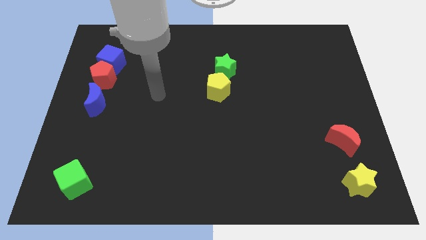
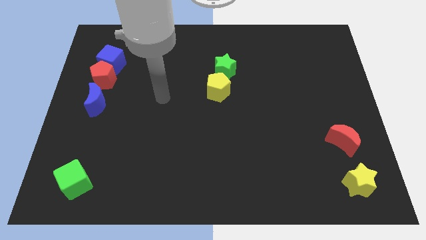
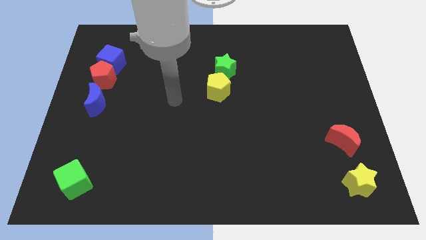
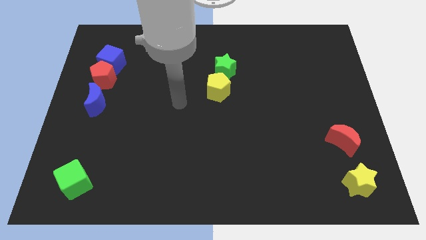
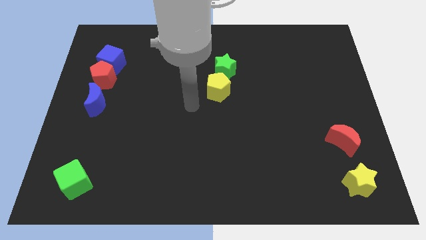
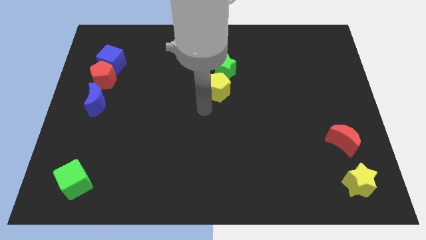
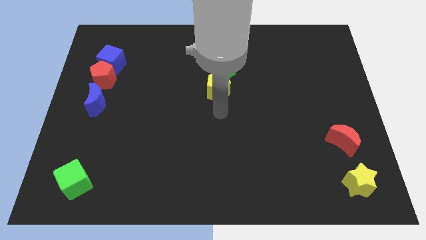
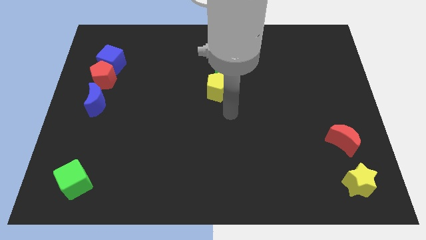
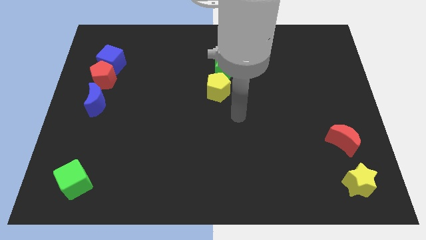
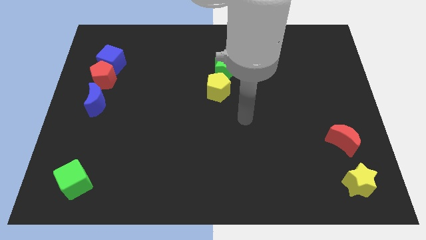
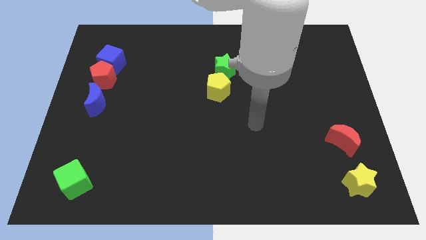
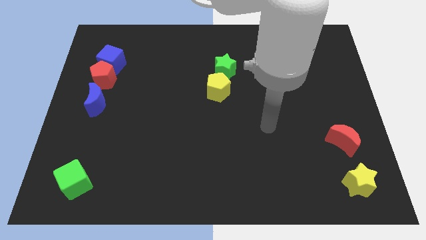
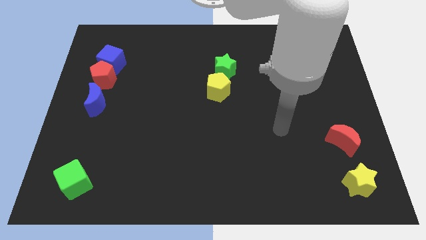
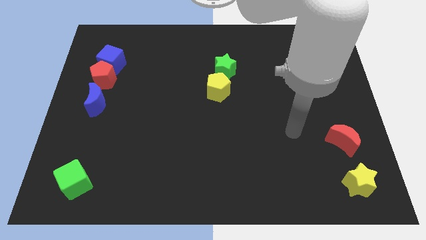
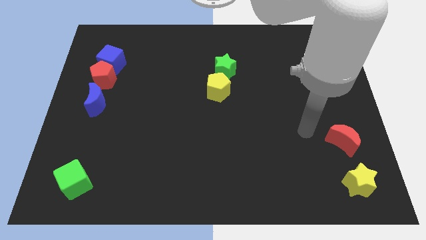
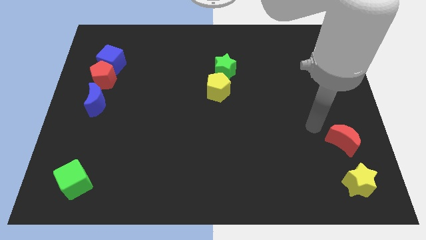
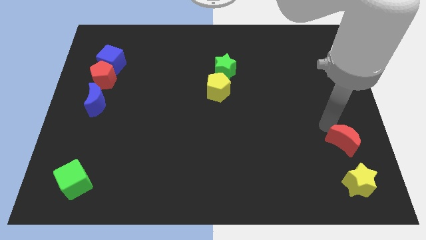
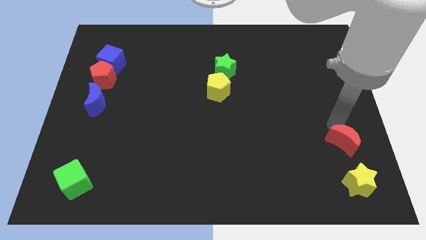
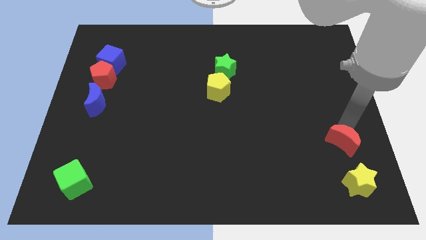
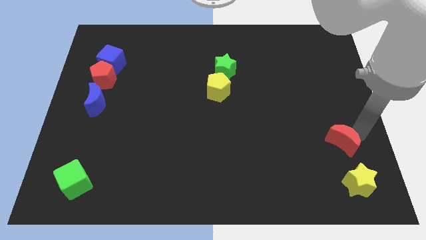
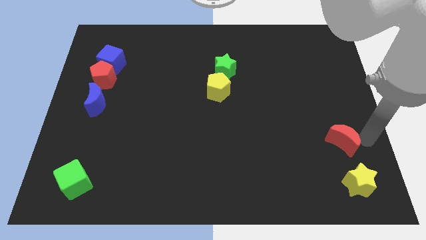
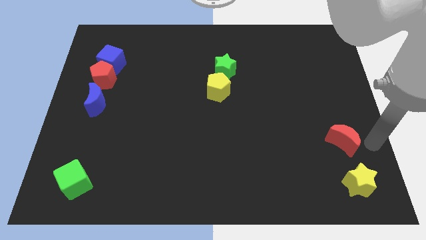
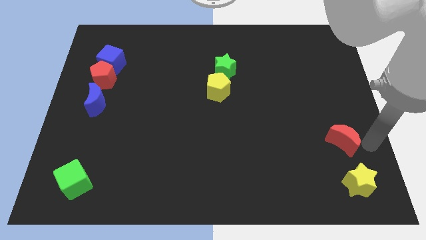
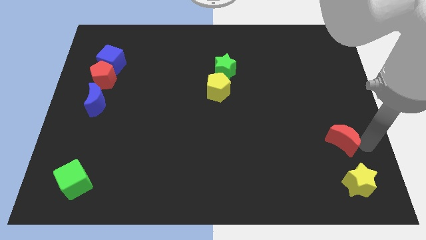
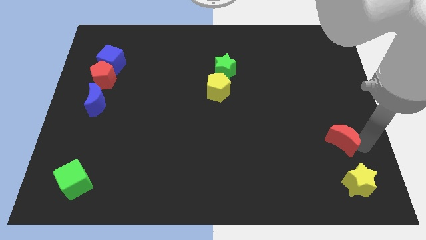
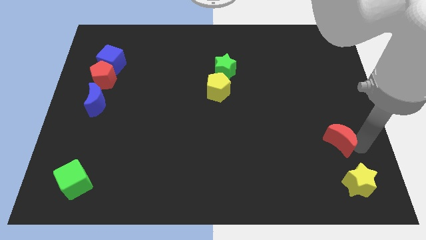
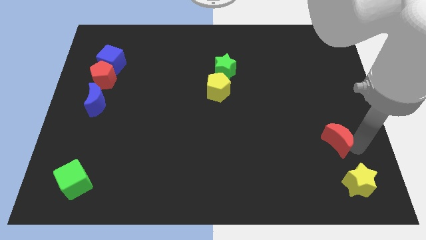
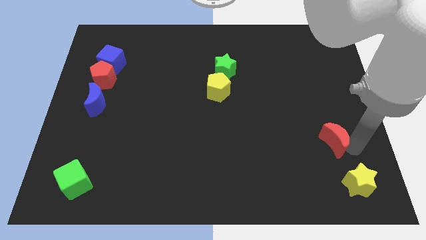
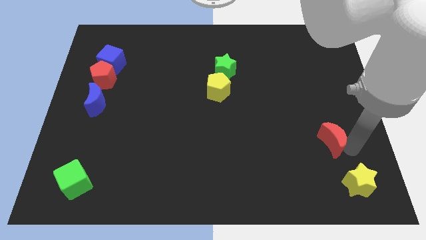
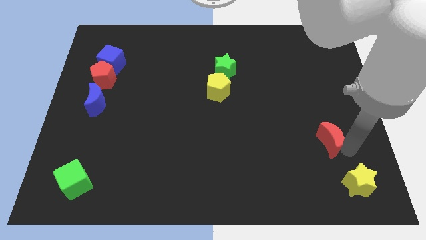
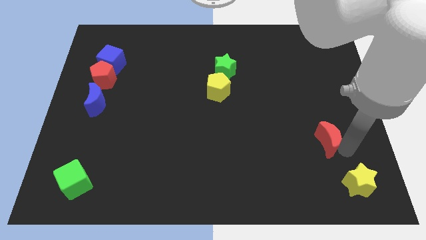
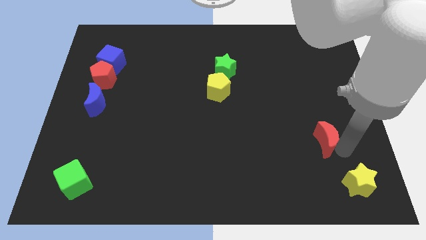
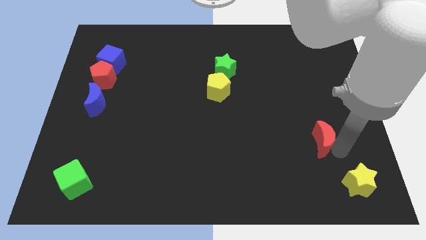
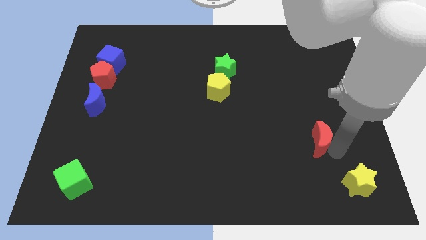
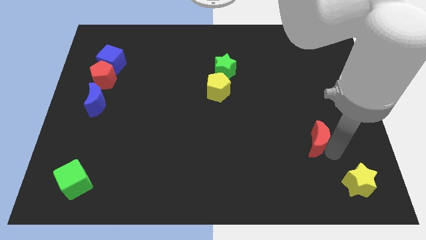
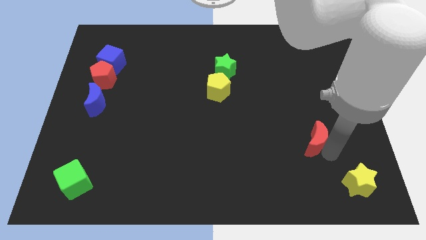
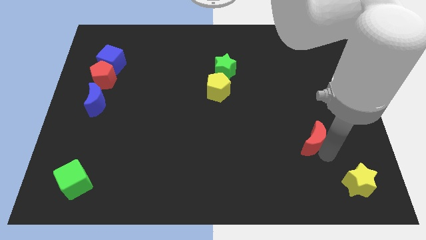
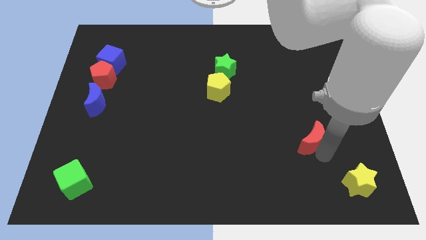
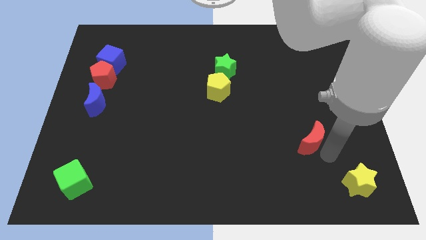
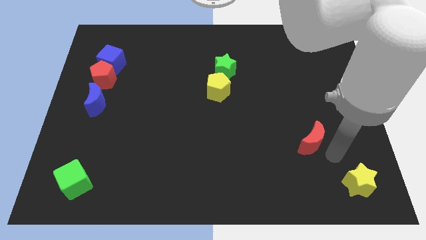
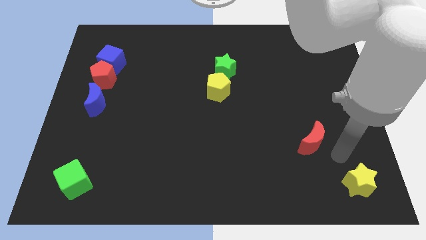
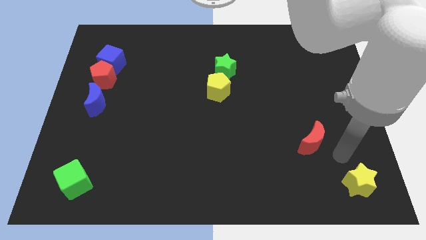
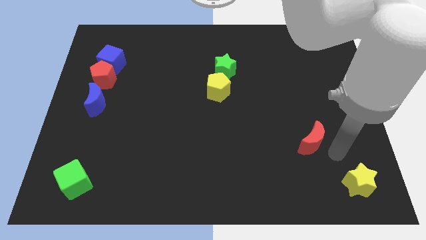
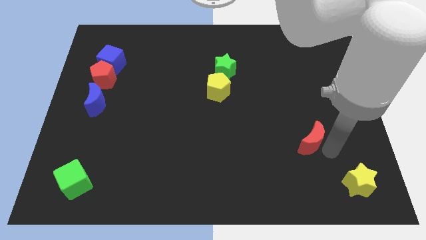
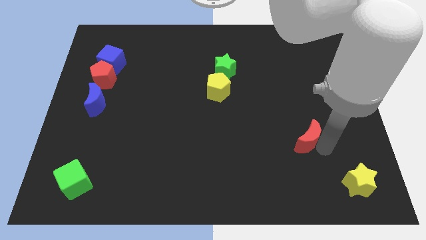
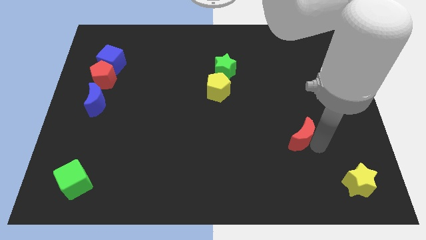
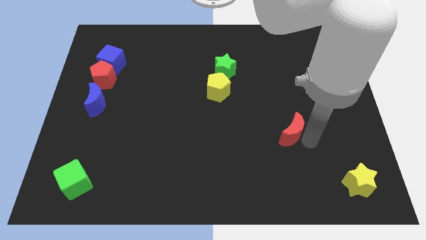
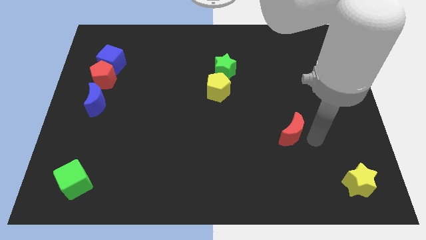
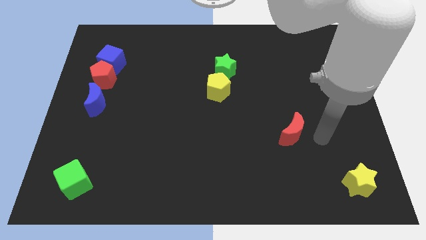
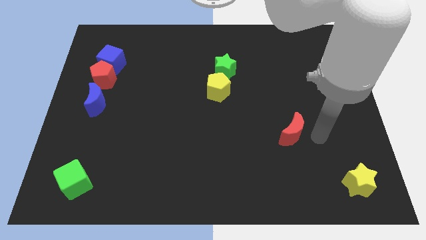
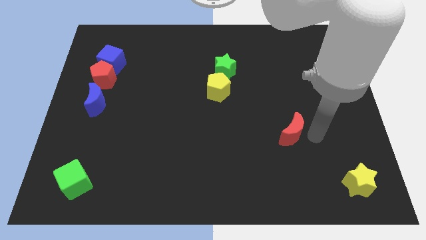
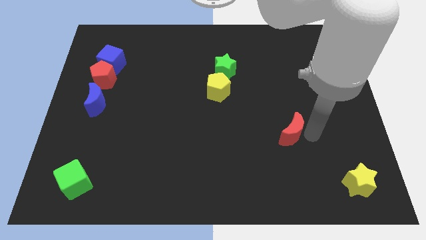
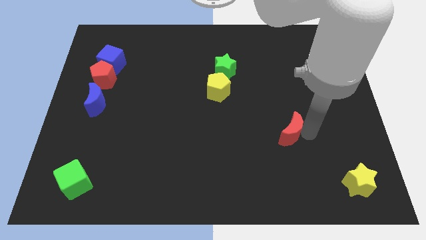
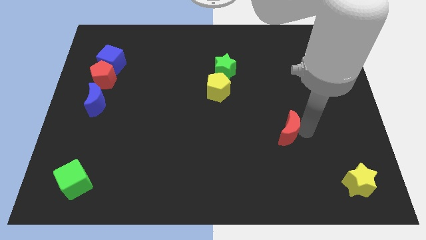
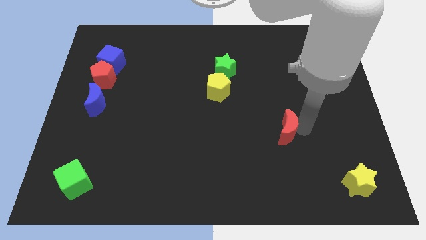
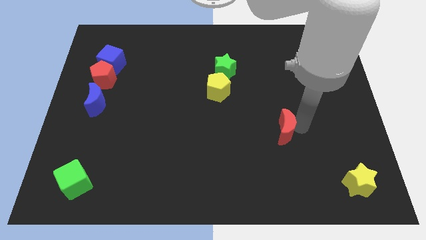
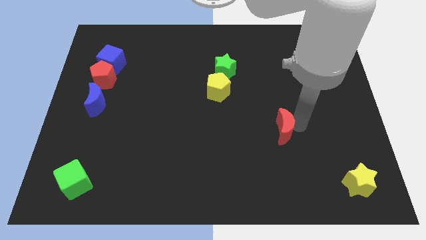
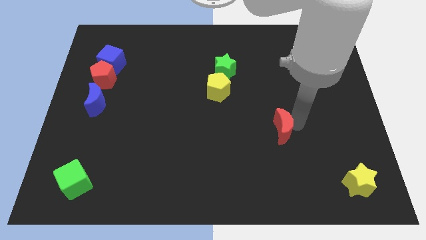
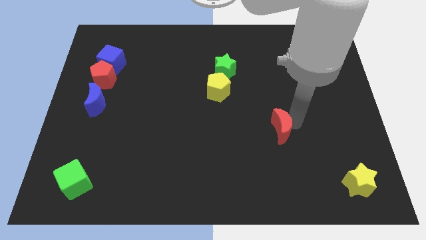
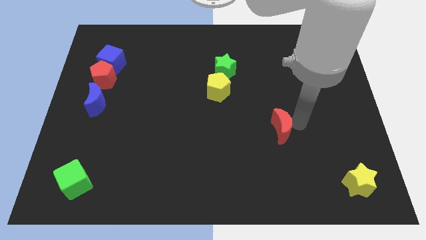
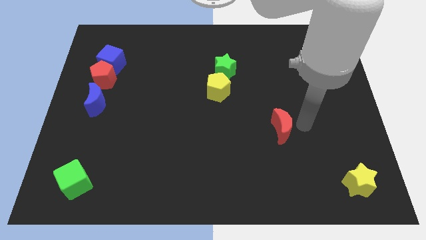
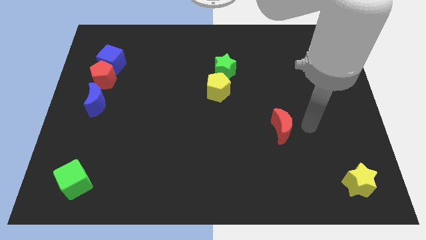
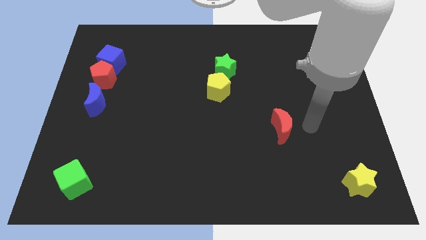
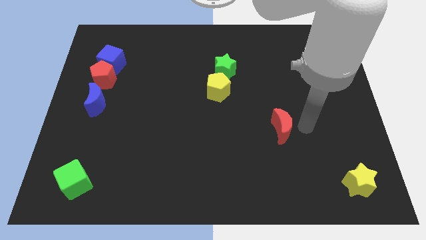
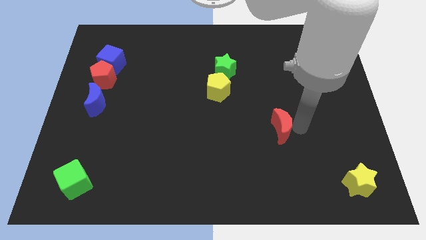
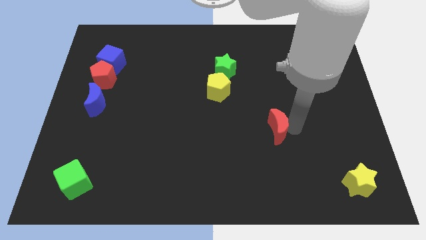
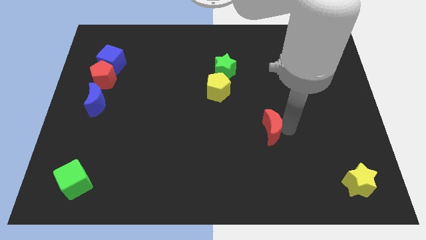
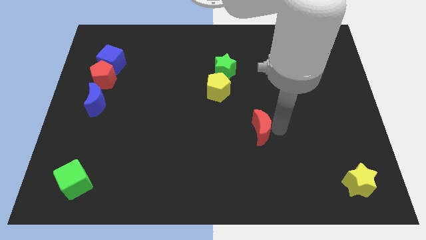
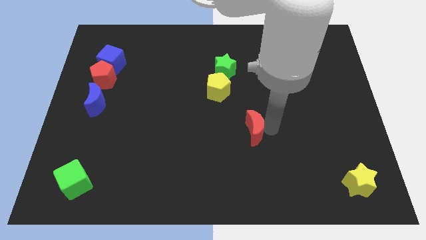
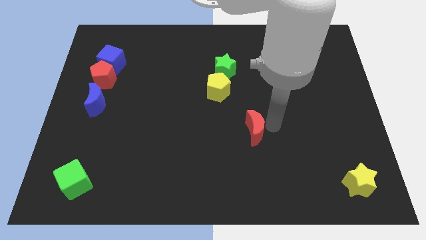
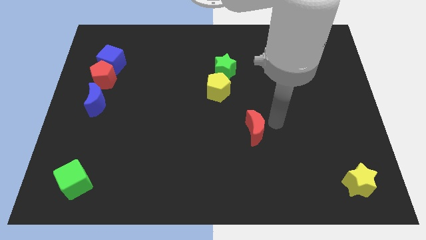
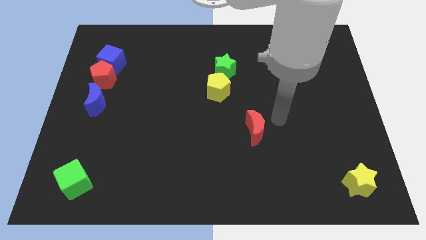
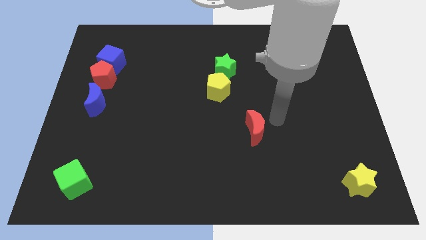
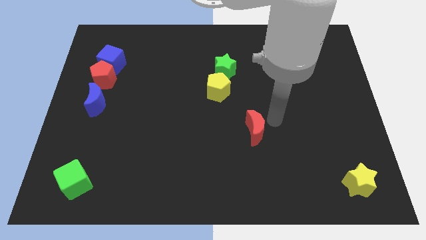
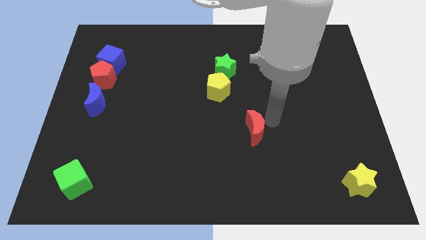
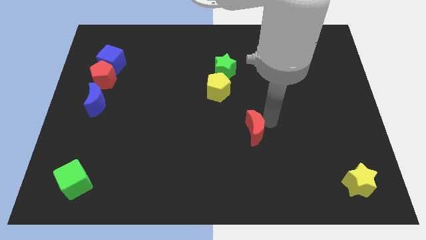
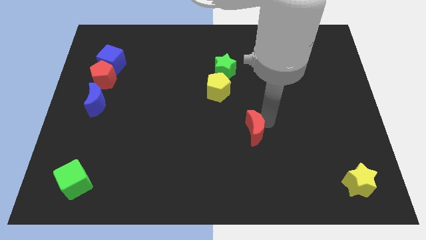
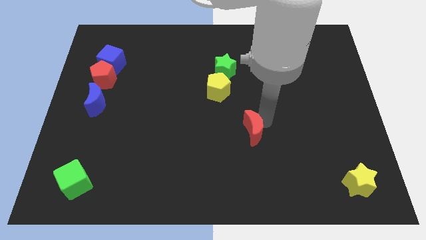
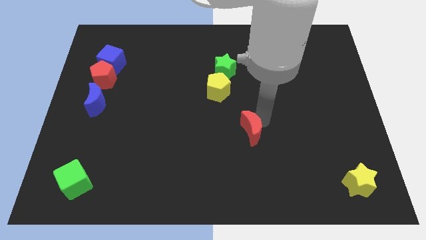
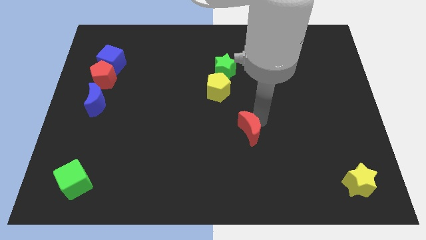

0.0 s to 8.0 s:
move the red moon left
